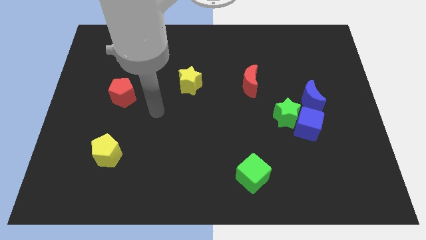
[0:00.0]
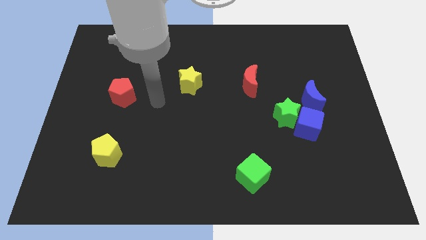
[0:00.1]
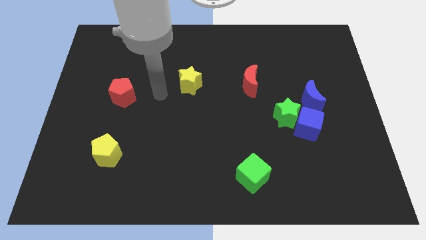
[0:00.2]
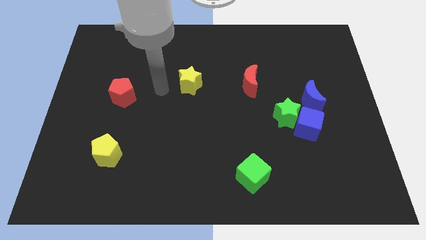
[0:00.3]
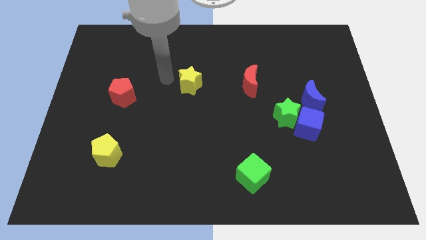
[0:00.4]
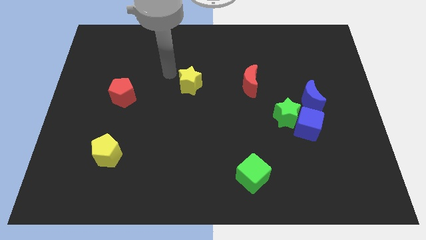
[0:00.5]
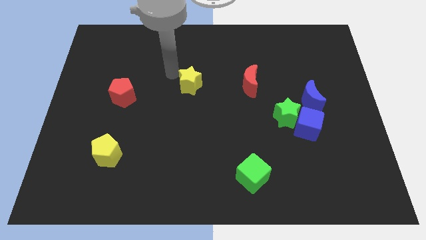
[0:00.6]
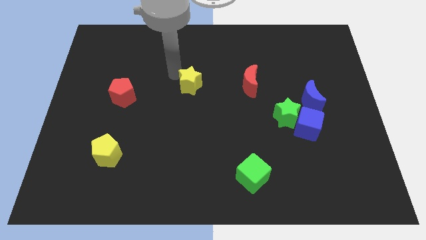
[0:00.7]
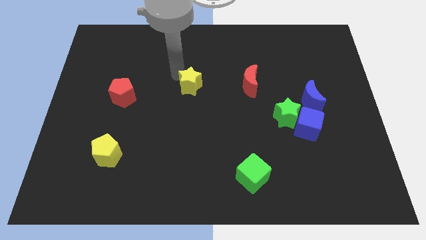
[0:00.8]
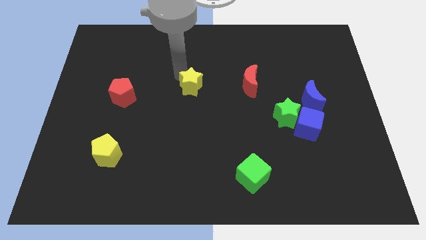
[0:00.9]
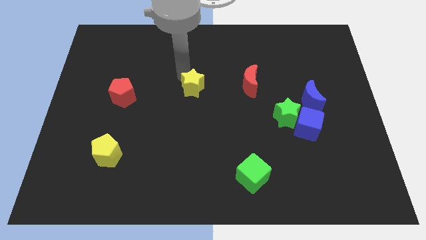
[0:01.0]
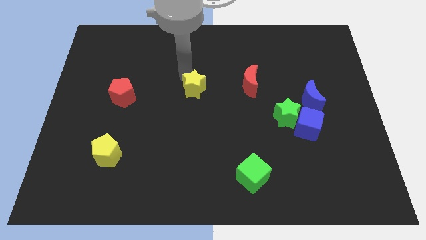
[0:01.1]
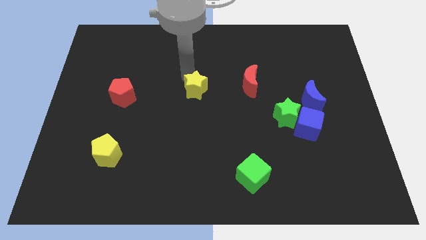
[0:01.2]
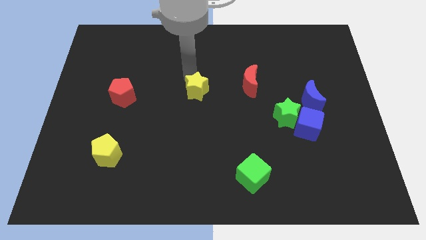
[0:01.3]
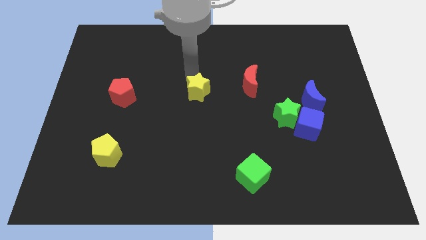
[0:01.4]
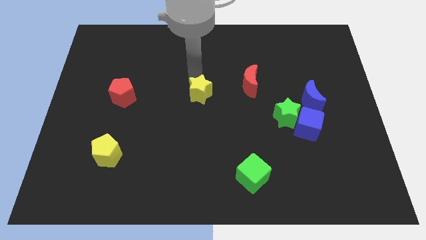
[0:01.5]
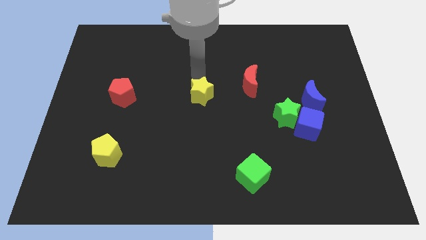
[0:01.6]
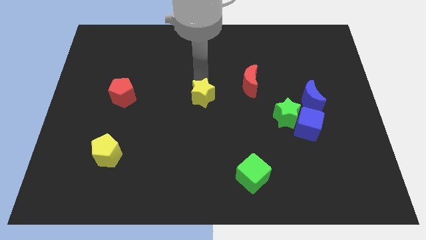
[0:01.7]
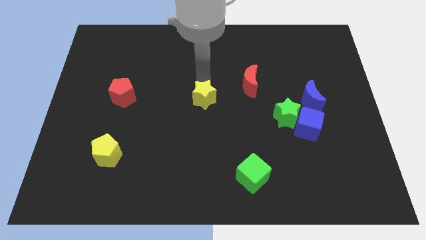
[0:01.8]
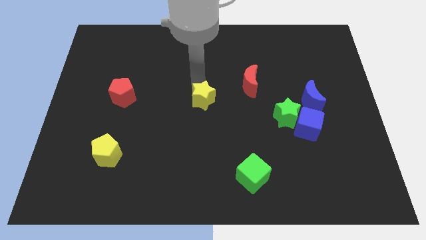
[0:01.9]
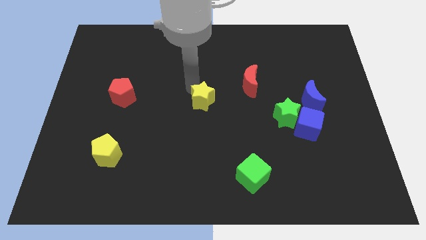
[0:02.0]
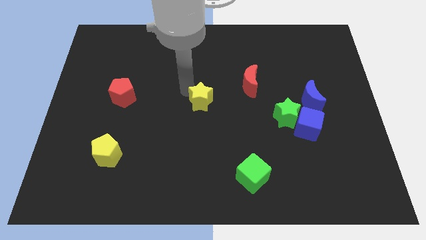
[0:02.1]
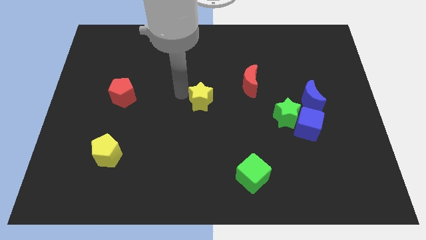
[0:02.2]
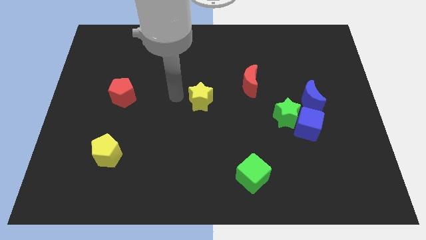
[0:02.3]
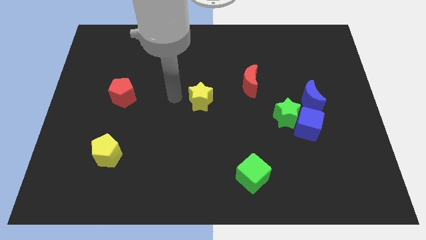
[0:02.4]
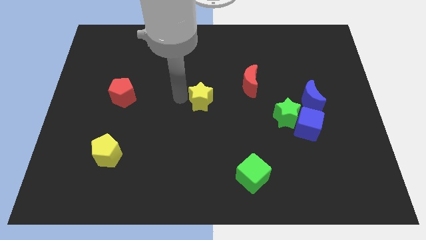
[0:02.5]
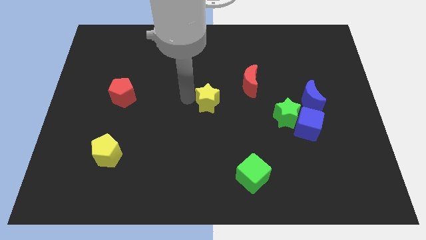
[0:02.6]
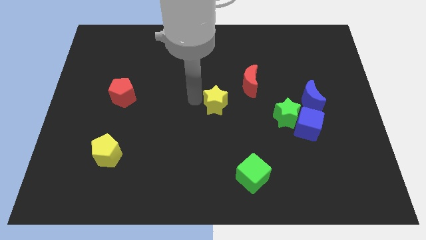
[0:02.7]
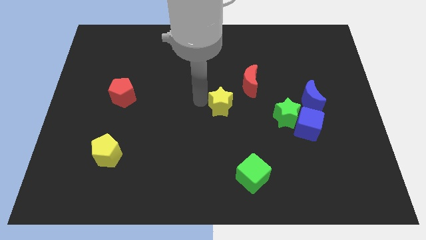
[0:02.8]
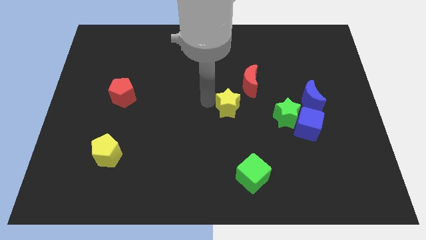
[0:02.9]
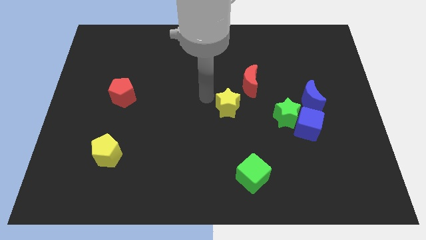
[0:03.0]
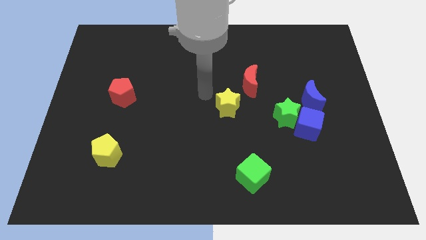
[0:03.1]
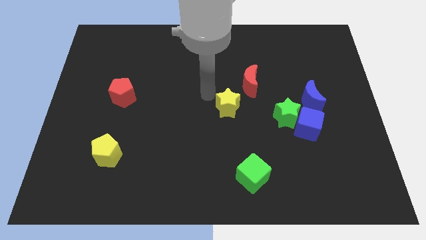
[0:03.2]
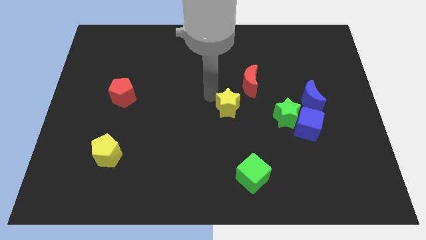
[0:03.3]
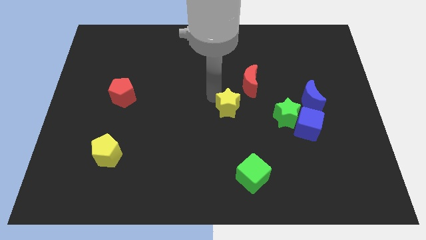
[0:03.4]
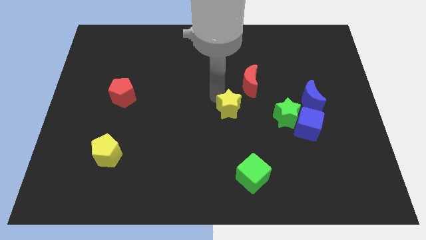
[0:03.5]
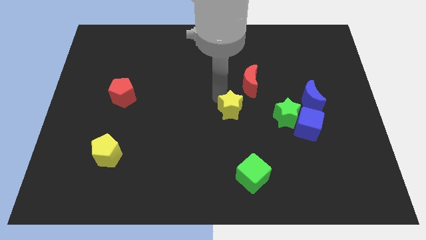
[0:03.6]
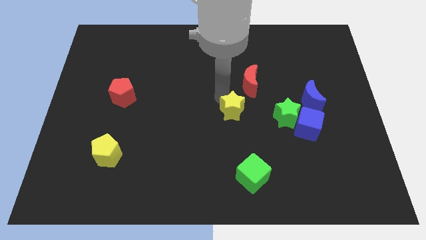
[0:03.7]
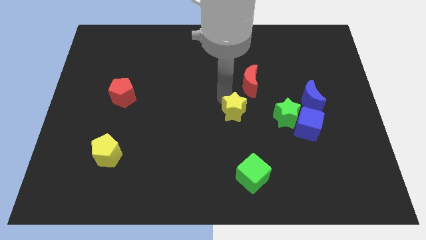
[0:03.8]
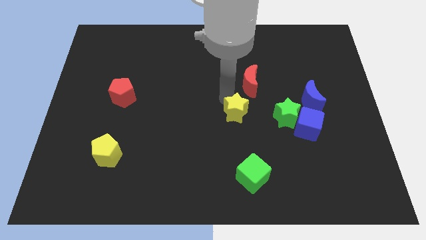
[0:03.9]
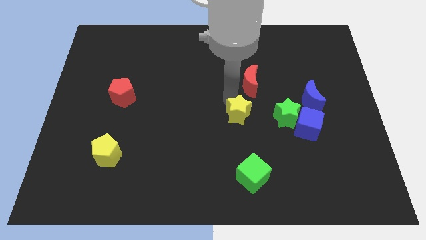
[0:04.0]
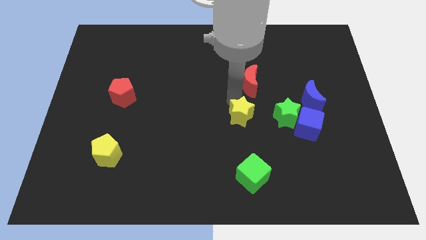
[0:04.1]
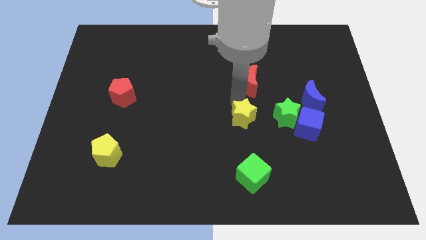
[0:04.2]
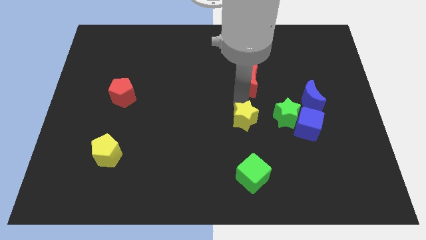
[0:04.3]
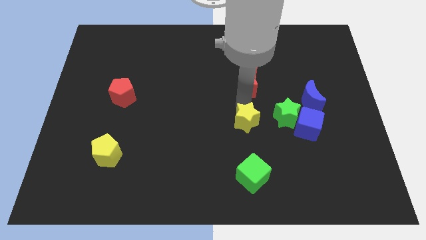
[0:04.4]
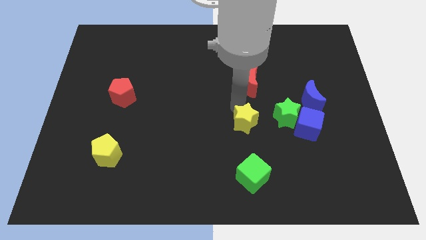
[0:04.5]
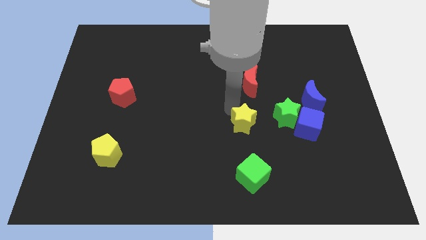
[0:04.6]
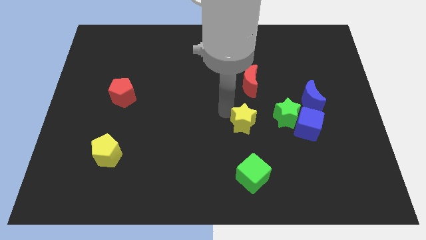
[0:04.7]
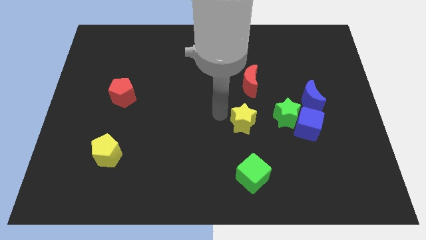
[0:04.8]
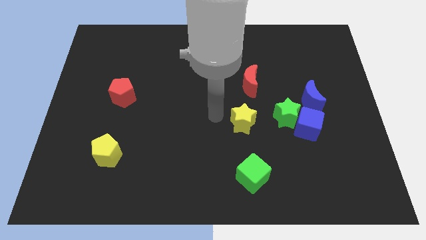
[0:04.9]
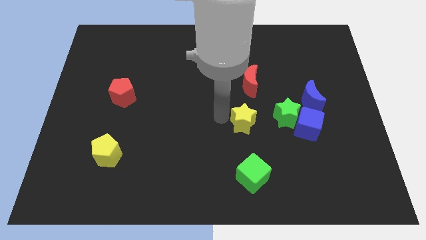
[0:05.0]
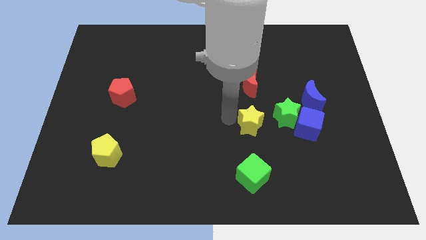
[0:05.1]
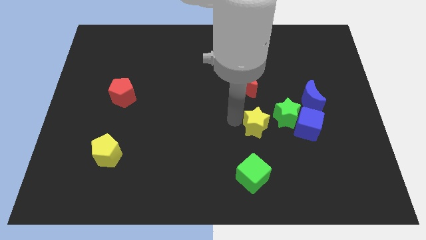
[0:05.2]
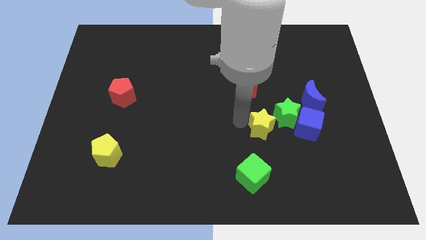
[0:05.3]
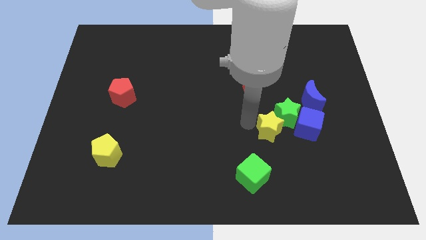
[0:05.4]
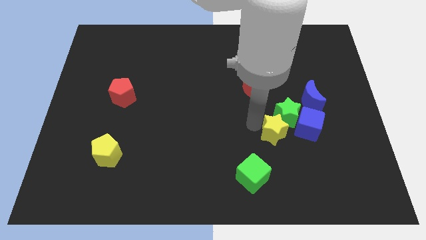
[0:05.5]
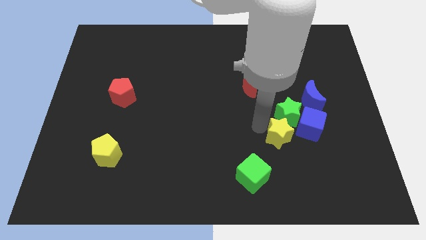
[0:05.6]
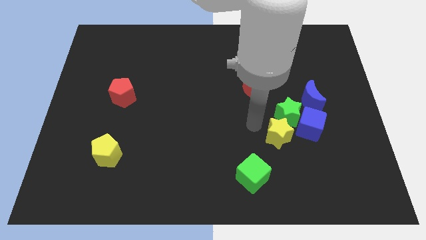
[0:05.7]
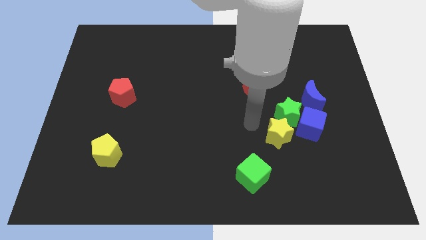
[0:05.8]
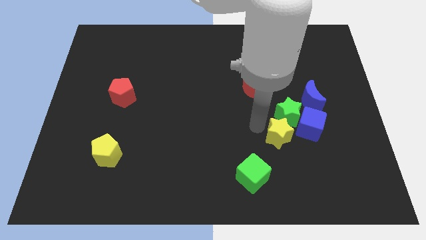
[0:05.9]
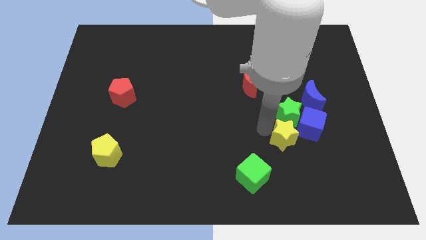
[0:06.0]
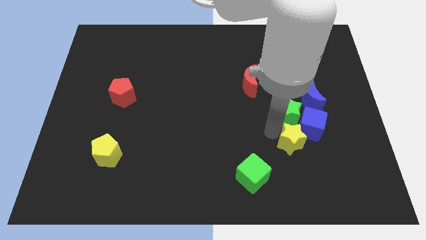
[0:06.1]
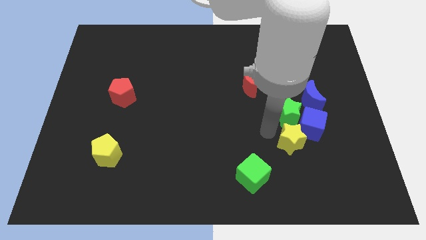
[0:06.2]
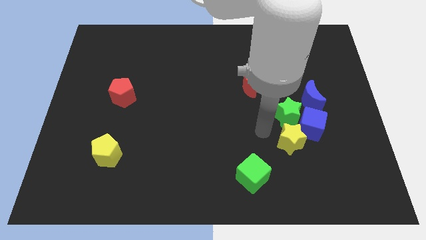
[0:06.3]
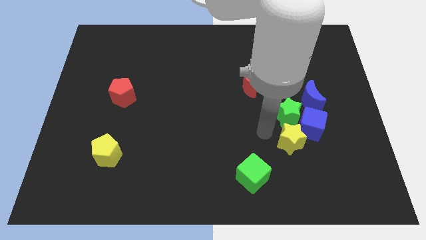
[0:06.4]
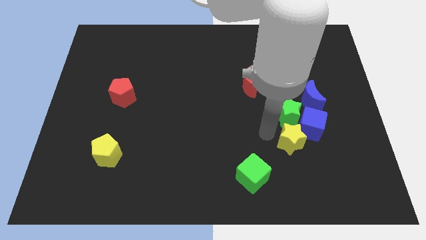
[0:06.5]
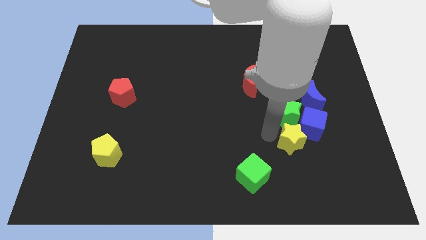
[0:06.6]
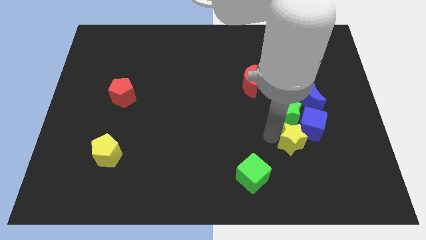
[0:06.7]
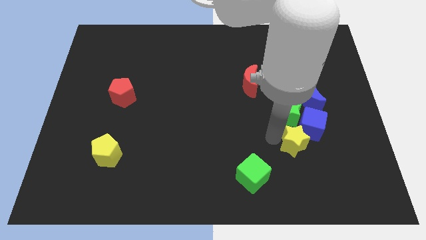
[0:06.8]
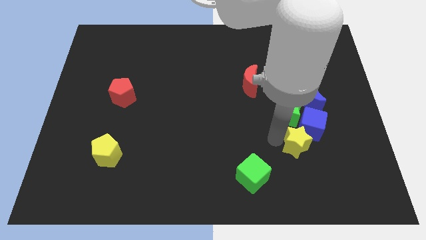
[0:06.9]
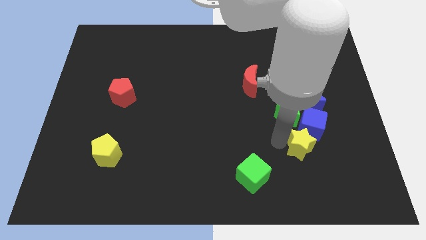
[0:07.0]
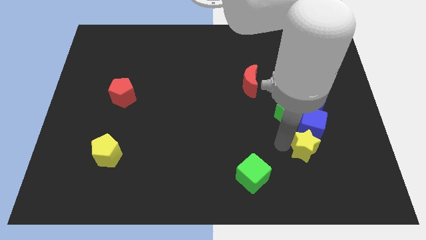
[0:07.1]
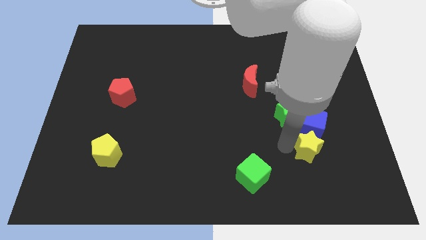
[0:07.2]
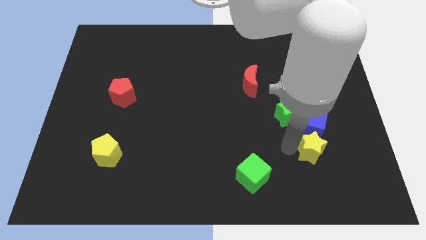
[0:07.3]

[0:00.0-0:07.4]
push the yellow star to the bottom right side of the blue cube
